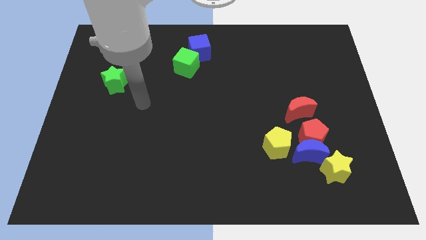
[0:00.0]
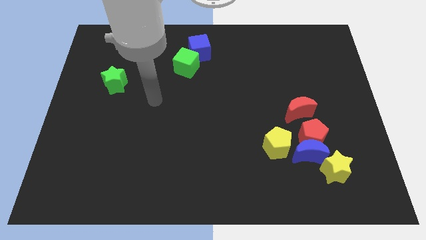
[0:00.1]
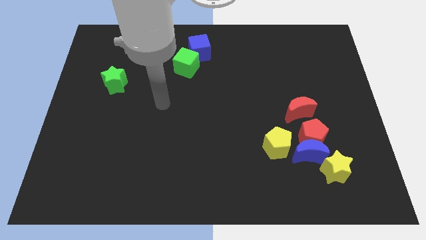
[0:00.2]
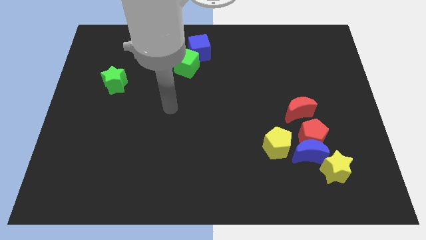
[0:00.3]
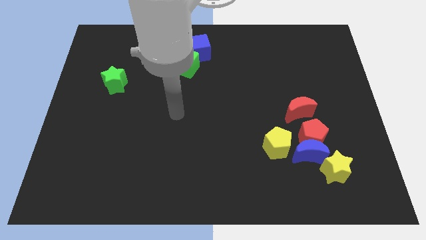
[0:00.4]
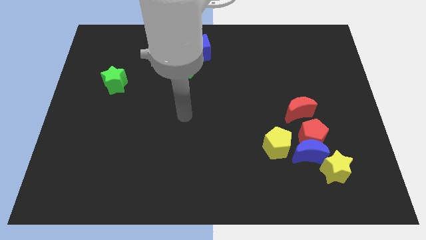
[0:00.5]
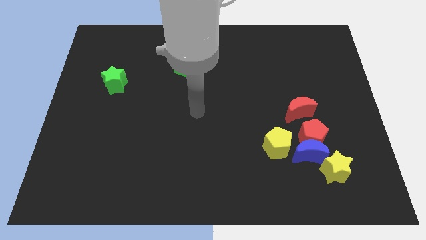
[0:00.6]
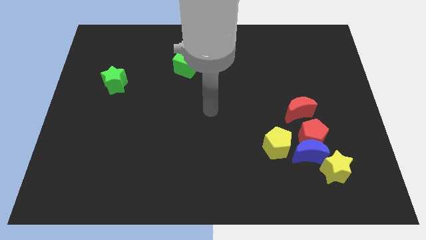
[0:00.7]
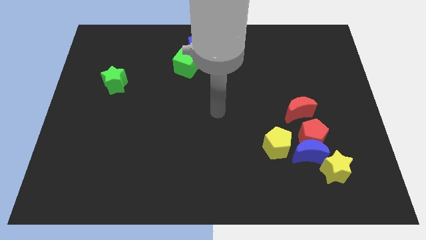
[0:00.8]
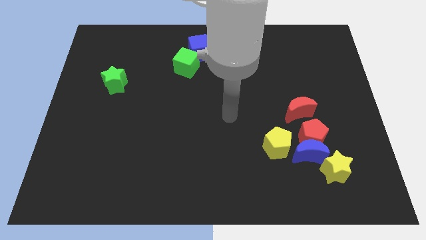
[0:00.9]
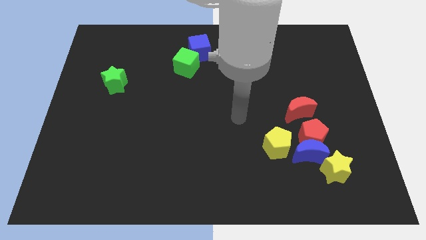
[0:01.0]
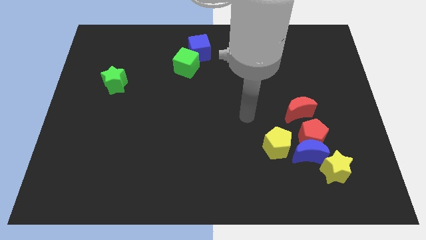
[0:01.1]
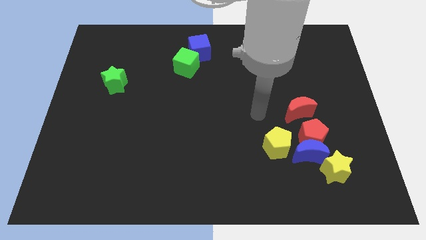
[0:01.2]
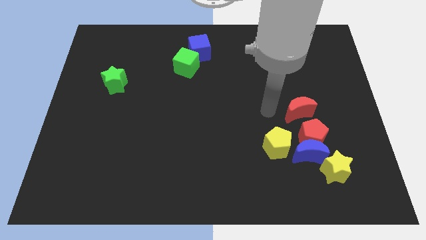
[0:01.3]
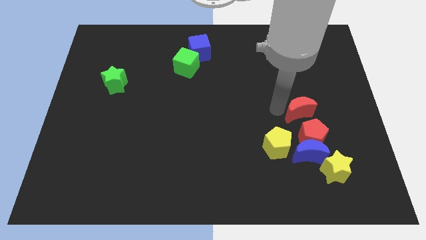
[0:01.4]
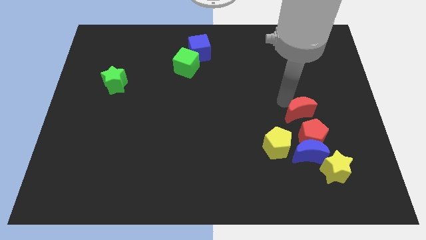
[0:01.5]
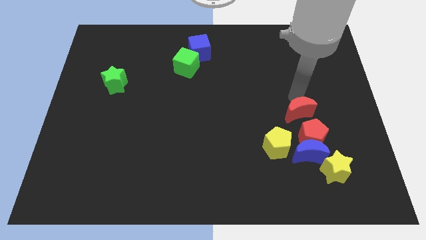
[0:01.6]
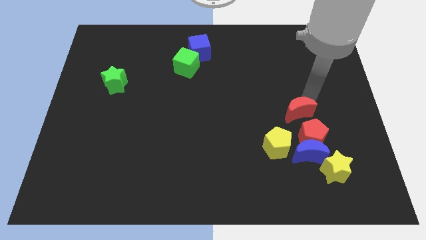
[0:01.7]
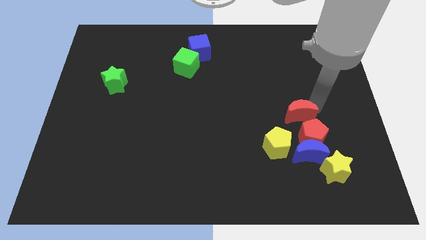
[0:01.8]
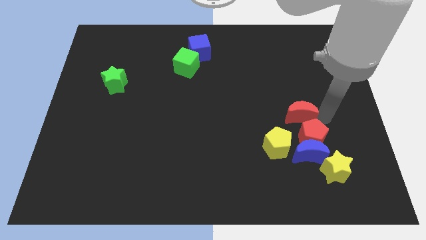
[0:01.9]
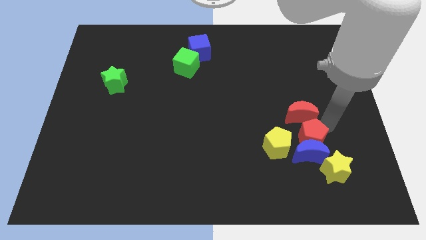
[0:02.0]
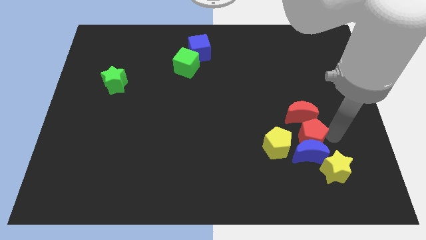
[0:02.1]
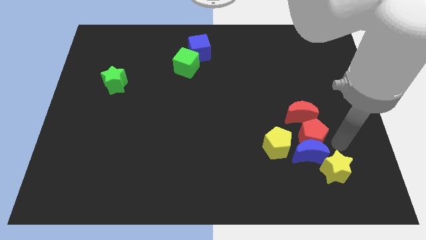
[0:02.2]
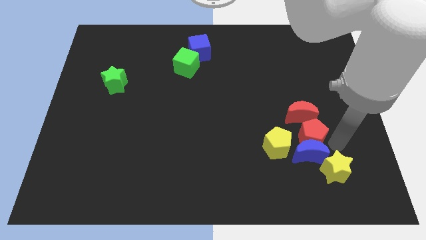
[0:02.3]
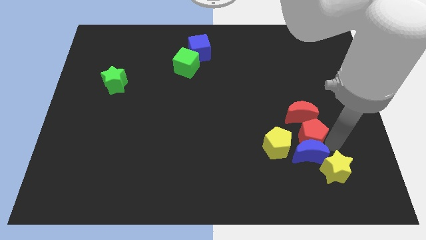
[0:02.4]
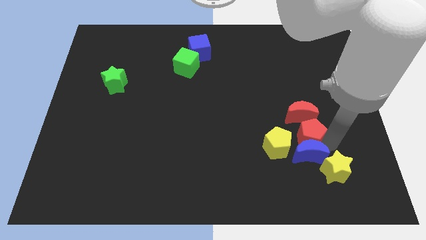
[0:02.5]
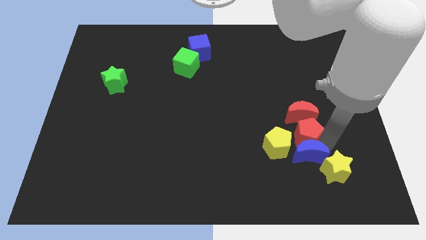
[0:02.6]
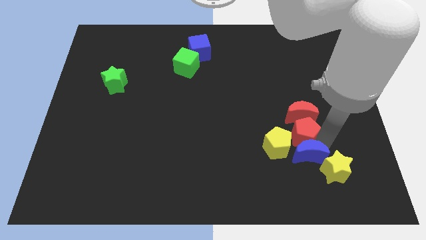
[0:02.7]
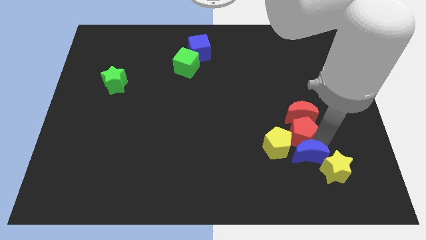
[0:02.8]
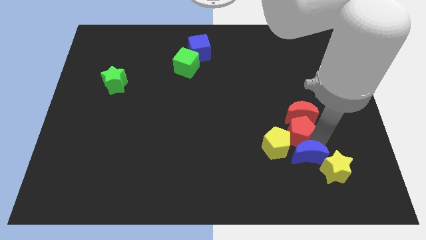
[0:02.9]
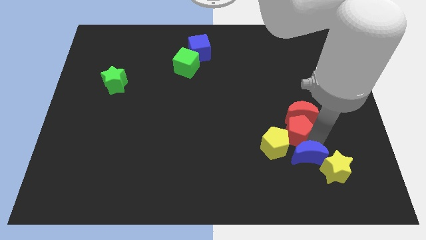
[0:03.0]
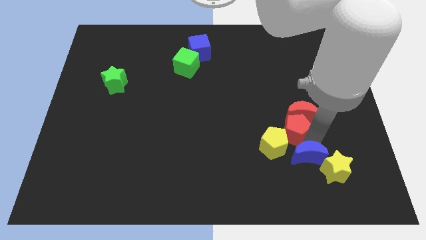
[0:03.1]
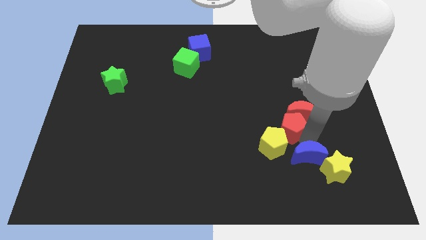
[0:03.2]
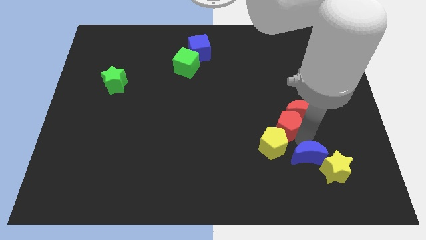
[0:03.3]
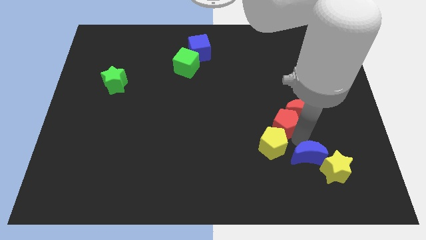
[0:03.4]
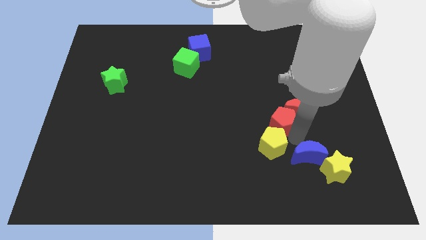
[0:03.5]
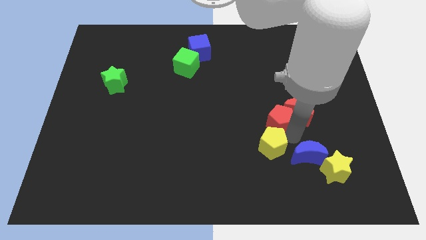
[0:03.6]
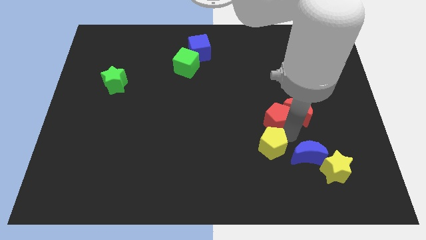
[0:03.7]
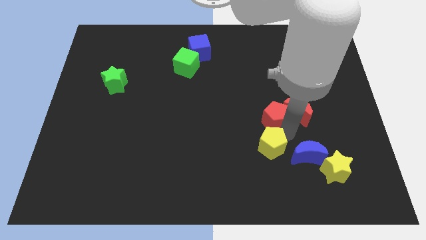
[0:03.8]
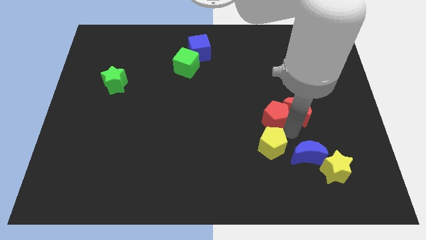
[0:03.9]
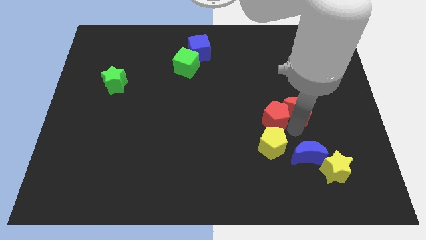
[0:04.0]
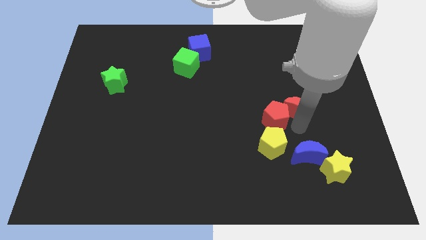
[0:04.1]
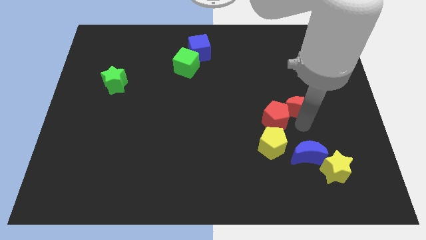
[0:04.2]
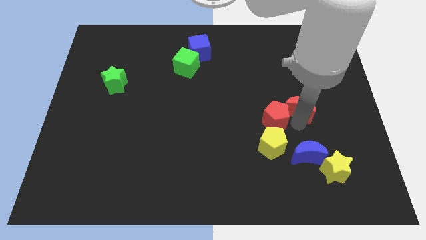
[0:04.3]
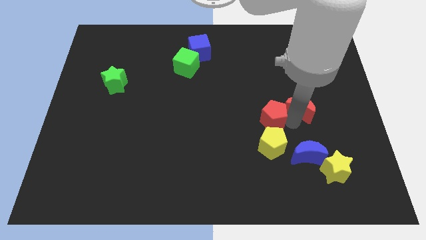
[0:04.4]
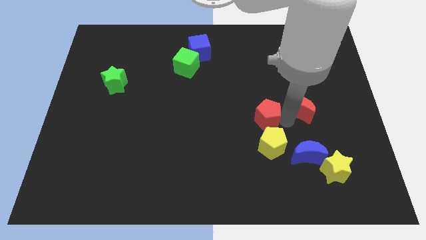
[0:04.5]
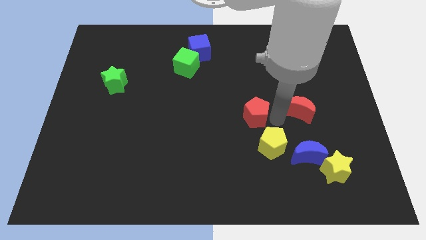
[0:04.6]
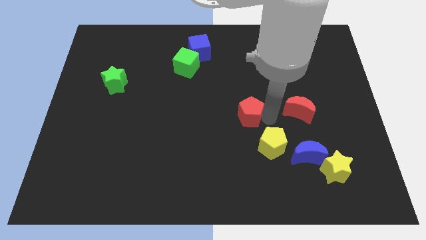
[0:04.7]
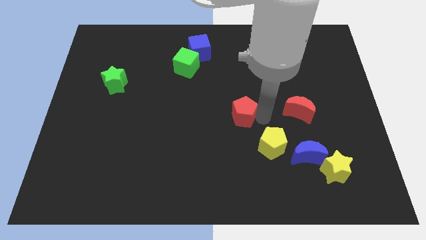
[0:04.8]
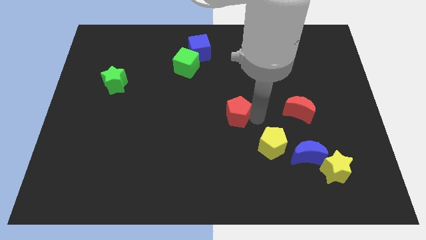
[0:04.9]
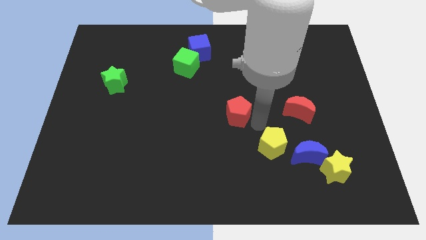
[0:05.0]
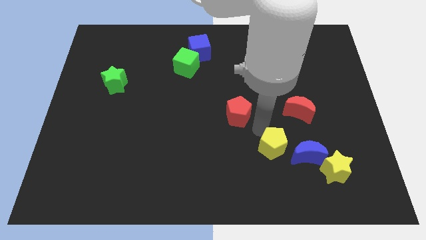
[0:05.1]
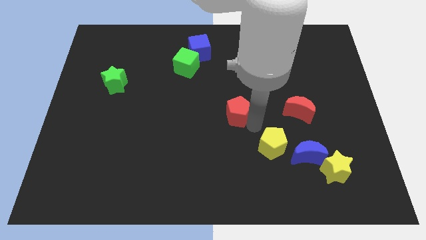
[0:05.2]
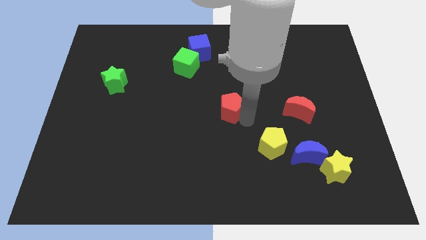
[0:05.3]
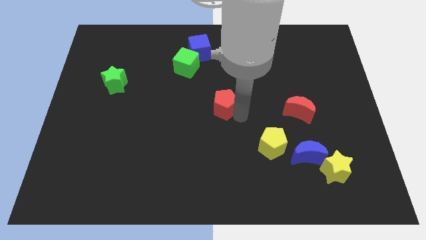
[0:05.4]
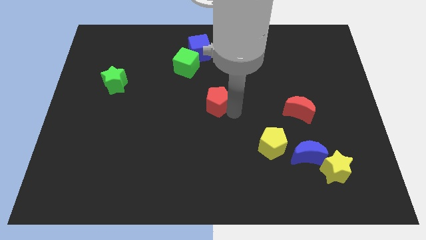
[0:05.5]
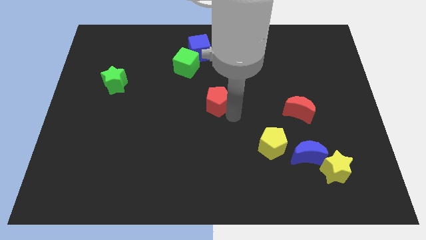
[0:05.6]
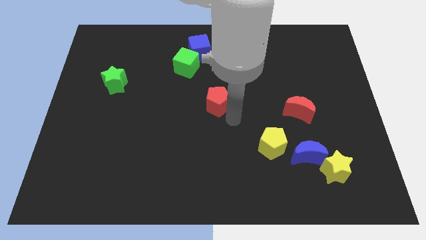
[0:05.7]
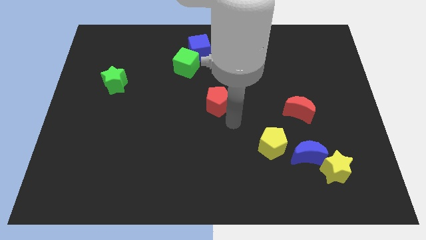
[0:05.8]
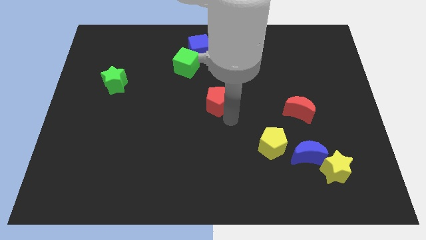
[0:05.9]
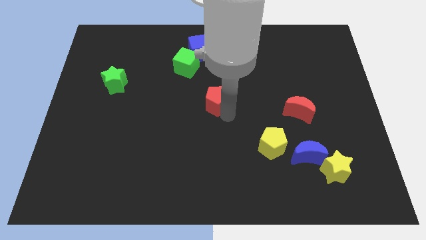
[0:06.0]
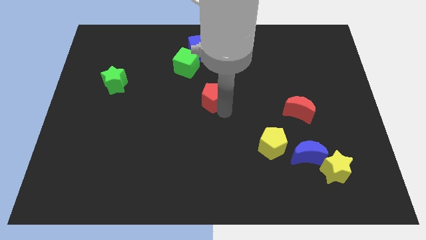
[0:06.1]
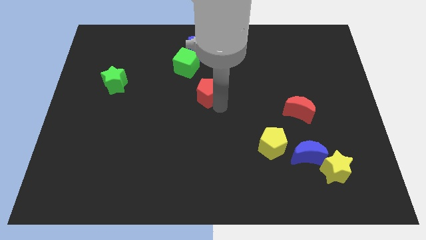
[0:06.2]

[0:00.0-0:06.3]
push the red pentagon below the blue cube
